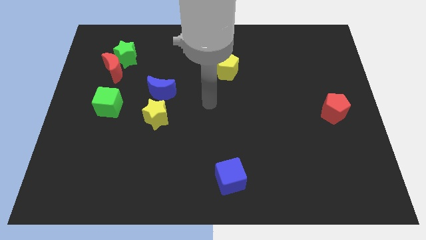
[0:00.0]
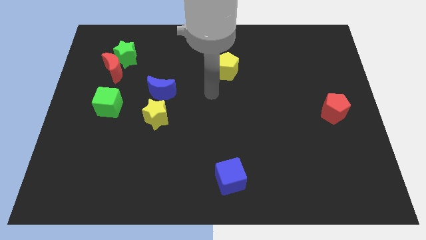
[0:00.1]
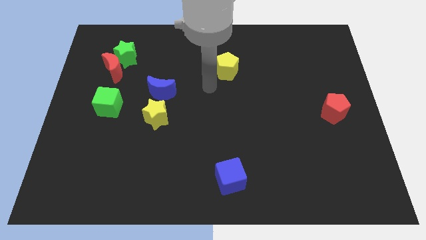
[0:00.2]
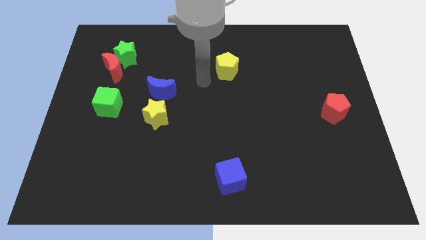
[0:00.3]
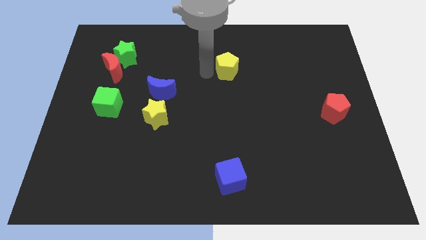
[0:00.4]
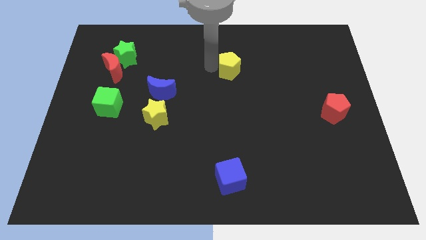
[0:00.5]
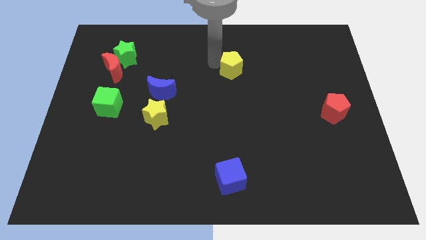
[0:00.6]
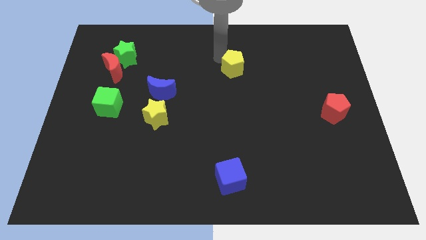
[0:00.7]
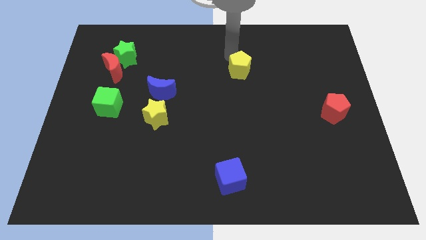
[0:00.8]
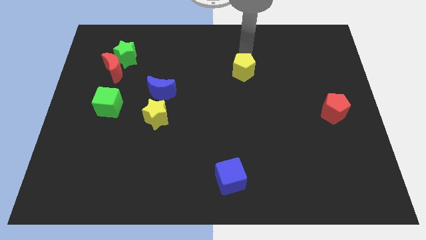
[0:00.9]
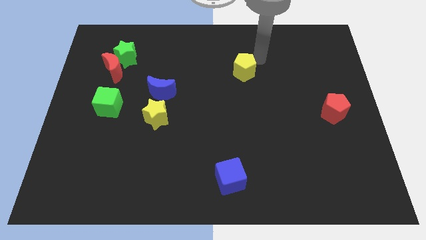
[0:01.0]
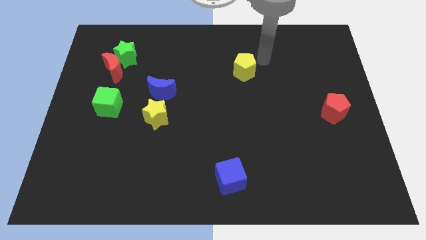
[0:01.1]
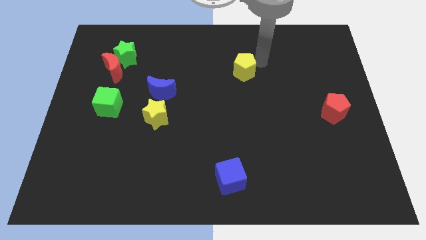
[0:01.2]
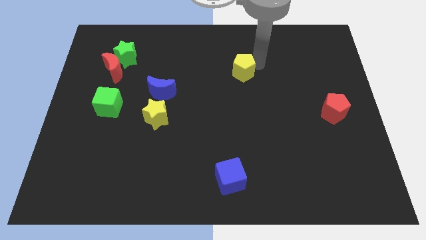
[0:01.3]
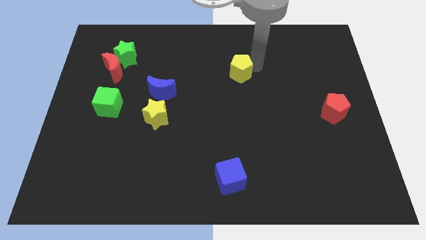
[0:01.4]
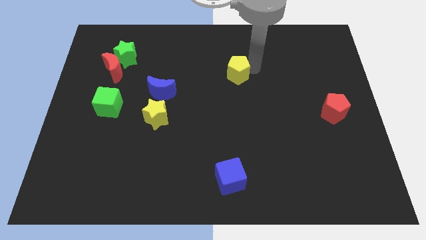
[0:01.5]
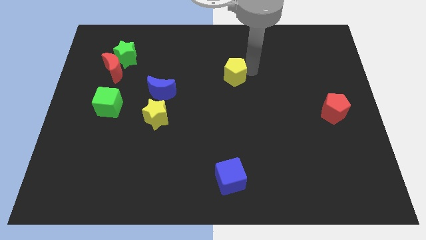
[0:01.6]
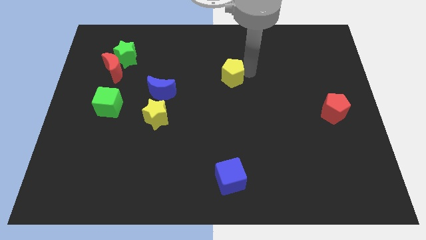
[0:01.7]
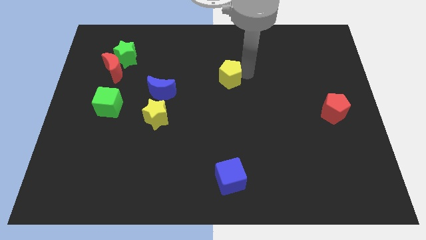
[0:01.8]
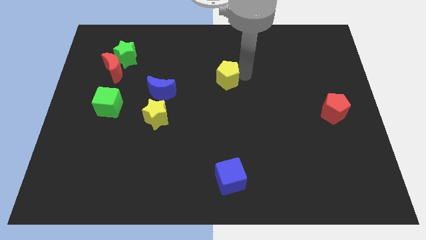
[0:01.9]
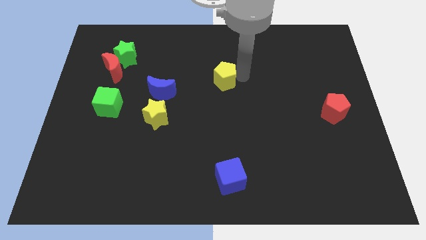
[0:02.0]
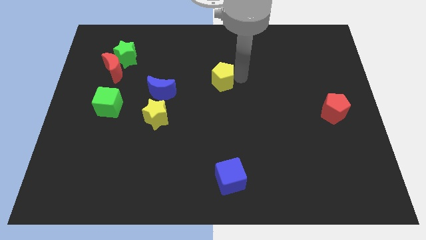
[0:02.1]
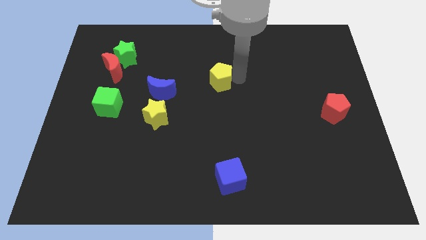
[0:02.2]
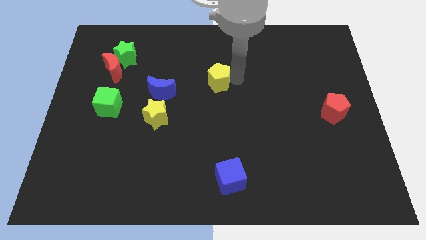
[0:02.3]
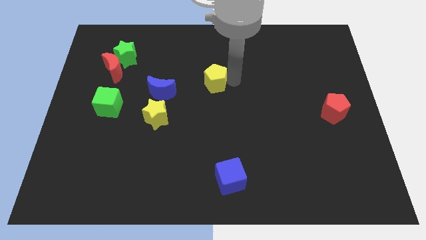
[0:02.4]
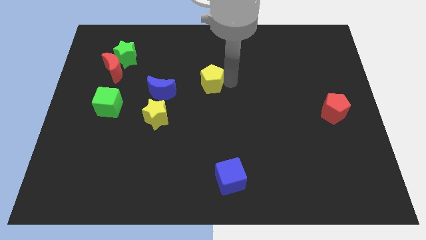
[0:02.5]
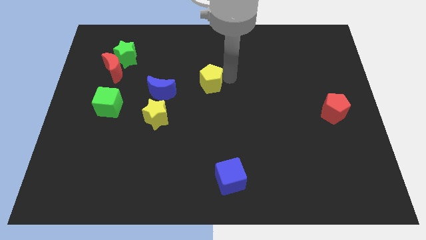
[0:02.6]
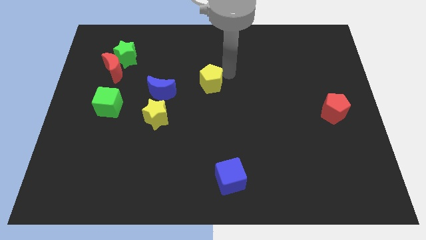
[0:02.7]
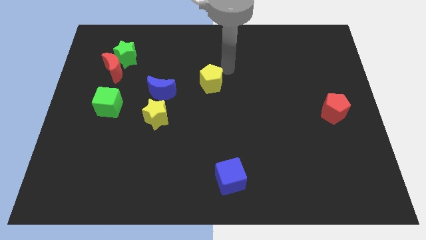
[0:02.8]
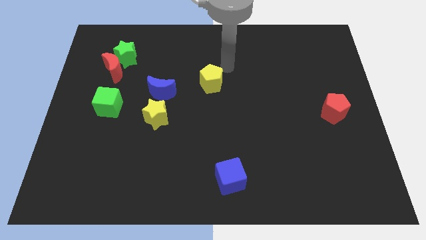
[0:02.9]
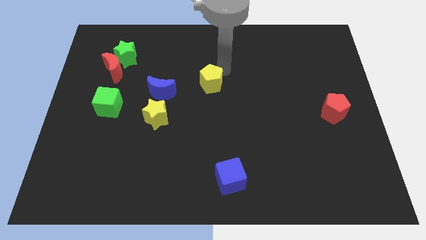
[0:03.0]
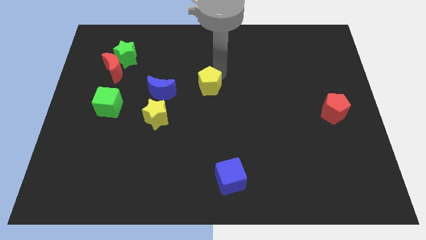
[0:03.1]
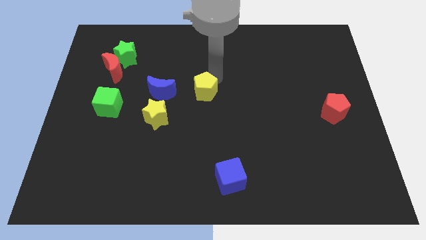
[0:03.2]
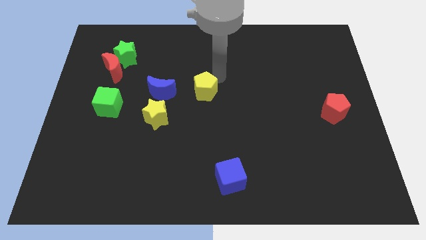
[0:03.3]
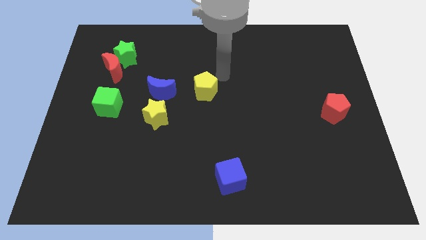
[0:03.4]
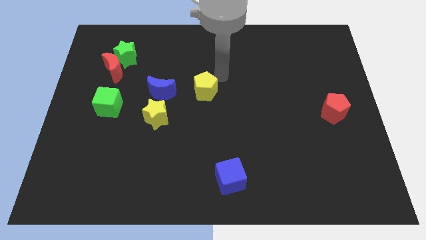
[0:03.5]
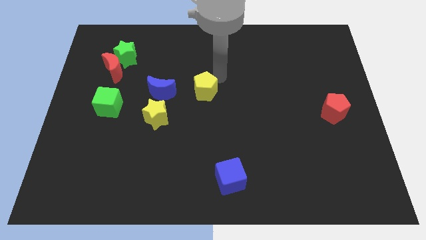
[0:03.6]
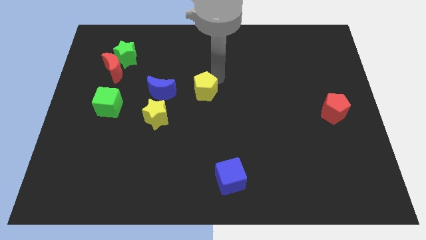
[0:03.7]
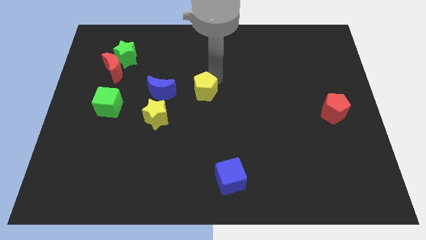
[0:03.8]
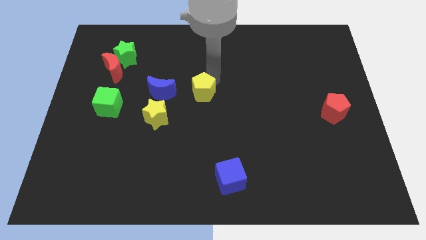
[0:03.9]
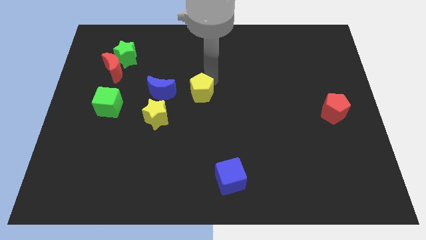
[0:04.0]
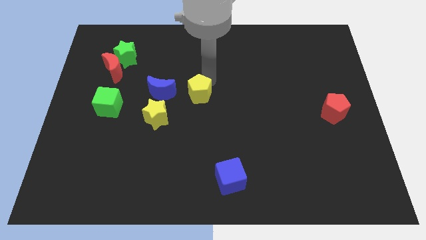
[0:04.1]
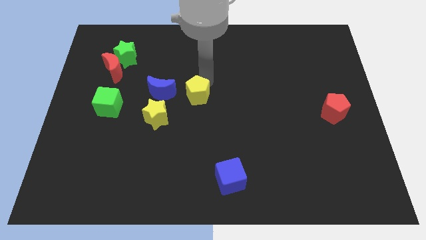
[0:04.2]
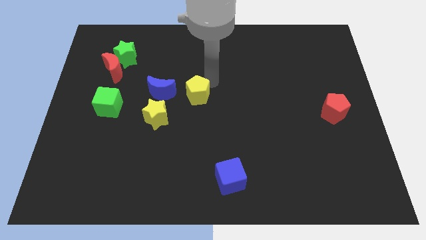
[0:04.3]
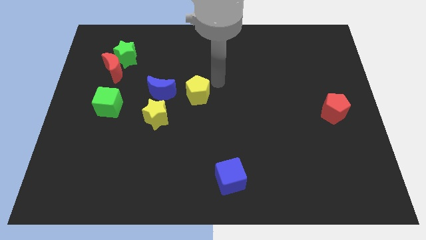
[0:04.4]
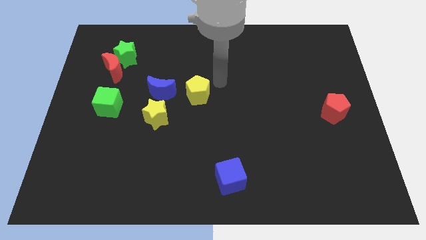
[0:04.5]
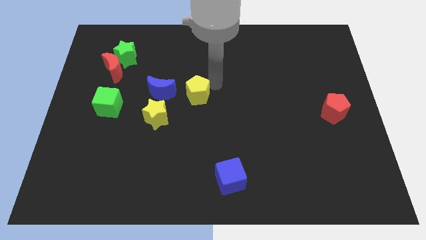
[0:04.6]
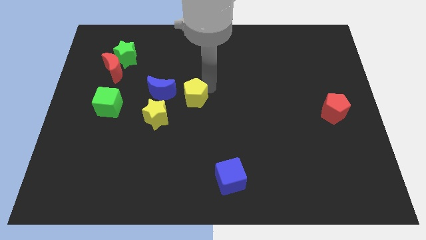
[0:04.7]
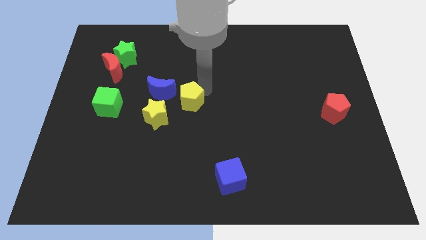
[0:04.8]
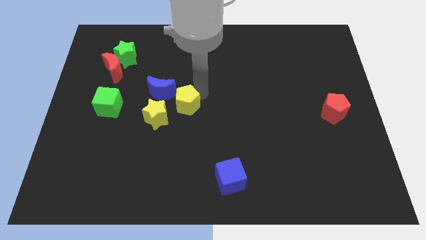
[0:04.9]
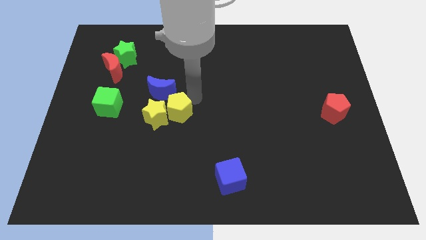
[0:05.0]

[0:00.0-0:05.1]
push the yellow pentagon towards the yellow star

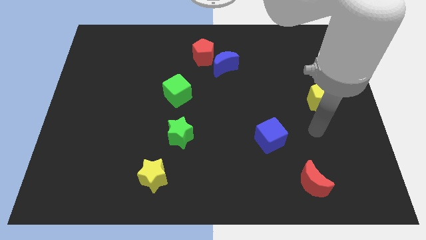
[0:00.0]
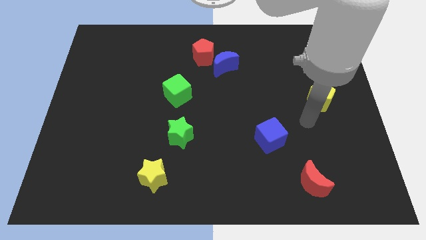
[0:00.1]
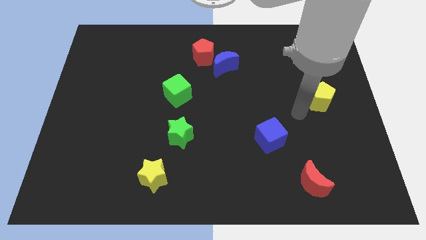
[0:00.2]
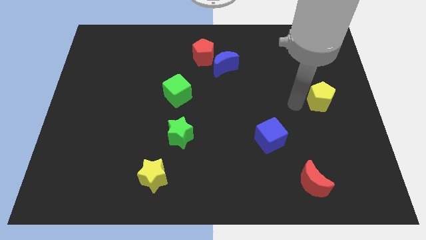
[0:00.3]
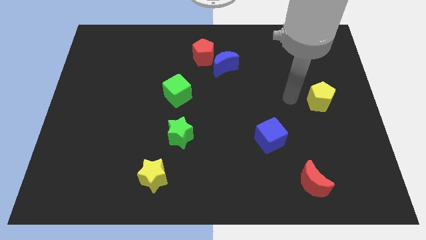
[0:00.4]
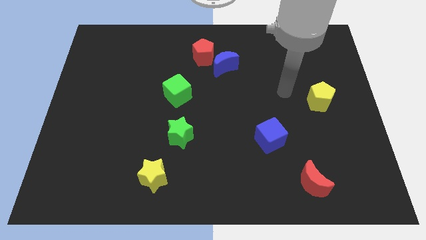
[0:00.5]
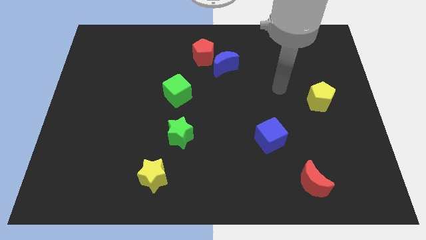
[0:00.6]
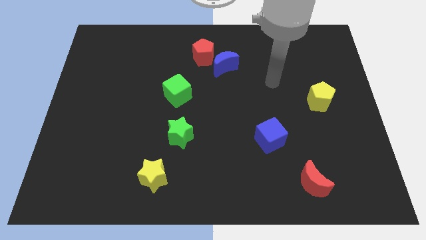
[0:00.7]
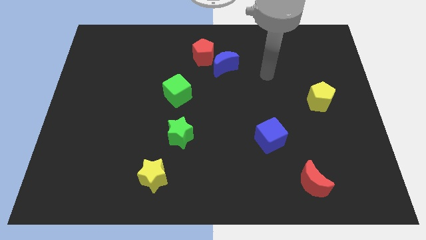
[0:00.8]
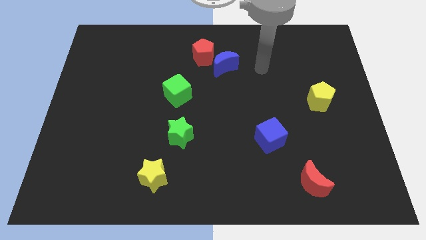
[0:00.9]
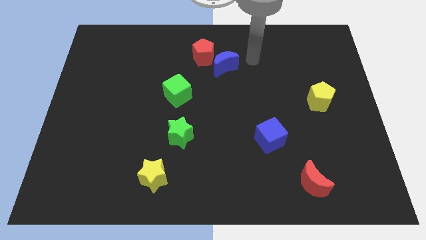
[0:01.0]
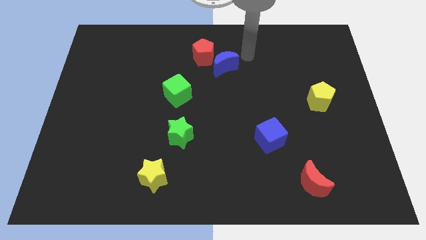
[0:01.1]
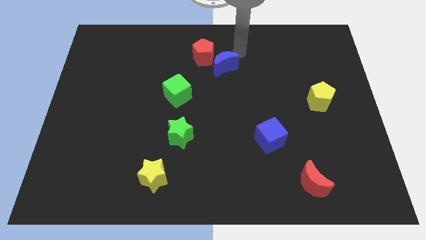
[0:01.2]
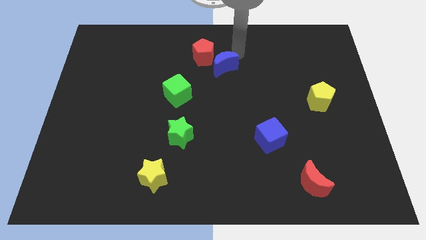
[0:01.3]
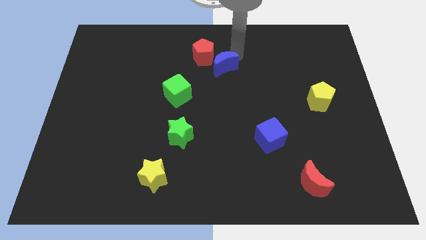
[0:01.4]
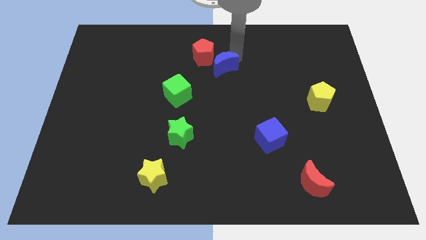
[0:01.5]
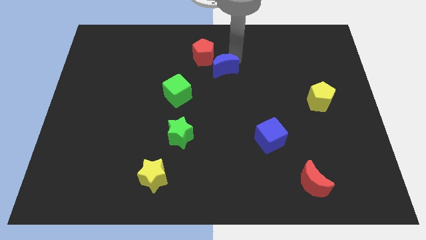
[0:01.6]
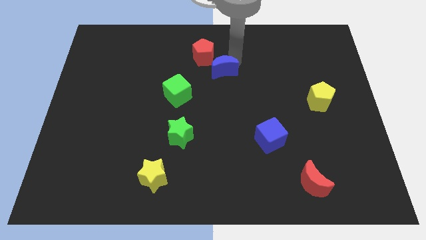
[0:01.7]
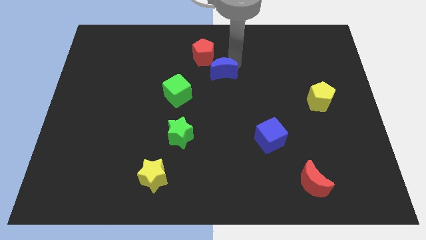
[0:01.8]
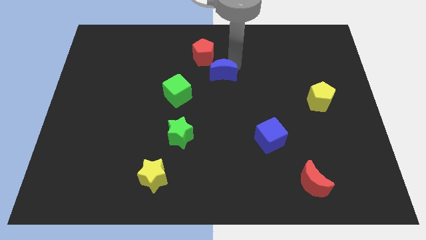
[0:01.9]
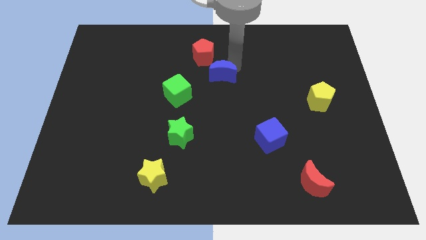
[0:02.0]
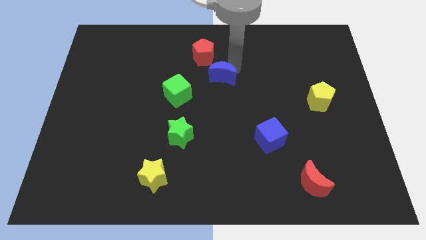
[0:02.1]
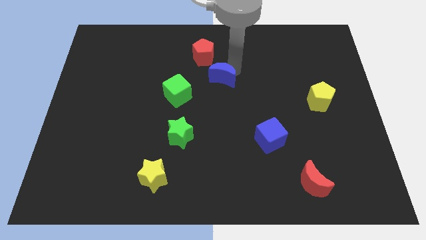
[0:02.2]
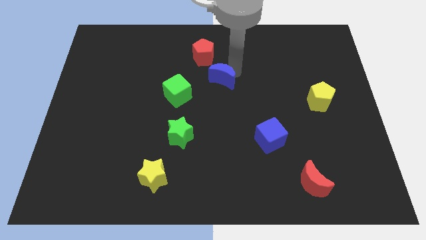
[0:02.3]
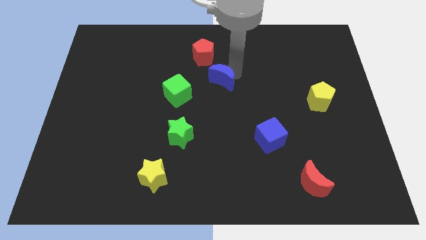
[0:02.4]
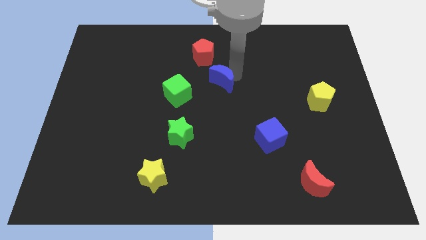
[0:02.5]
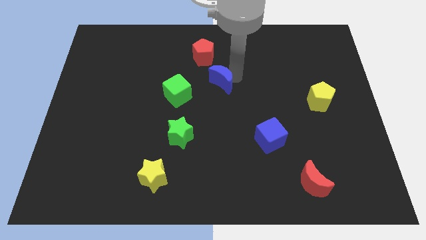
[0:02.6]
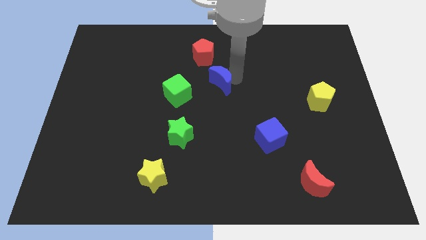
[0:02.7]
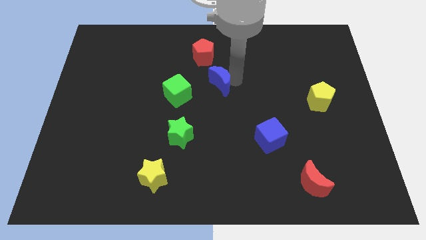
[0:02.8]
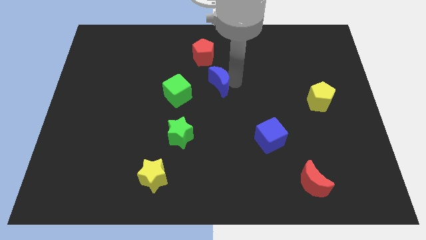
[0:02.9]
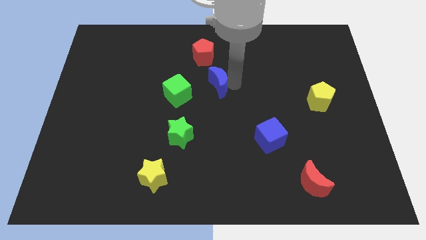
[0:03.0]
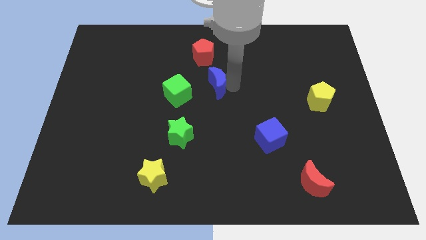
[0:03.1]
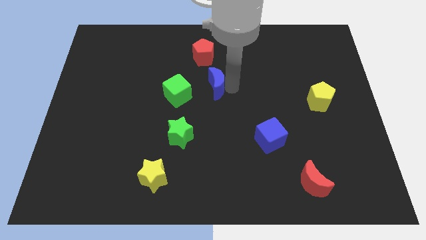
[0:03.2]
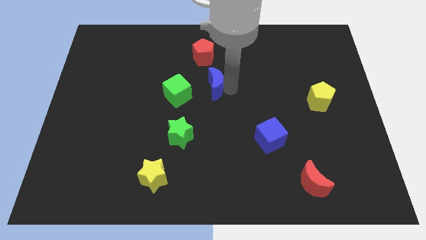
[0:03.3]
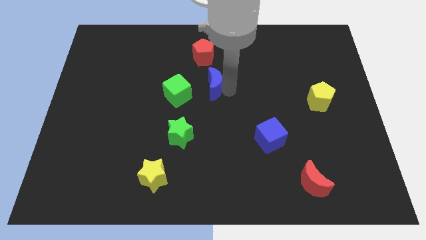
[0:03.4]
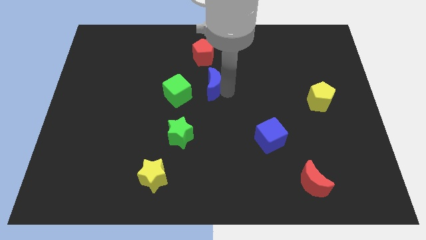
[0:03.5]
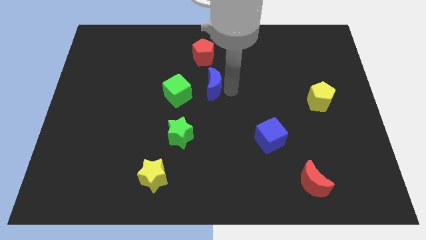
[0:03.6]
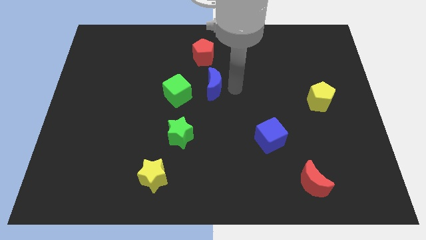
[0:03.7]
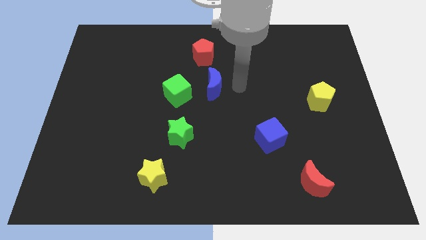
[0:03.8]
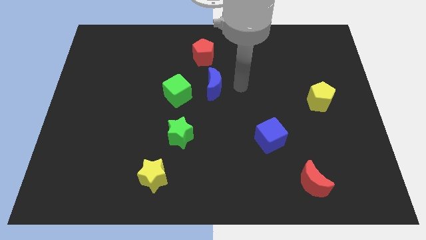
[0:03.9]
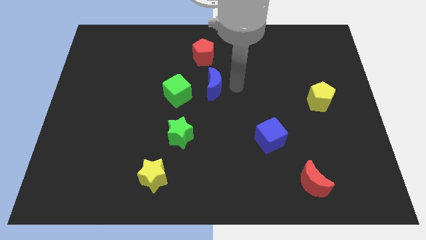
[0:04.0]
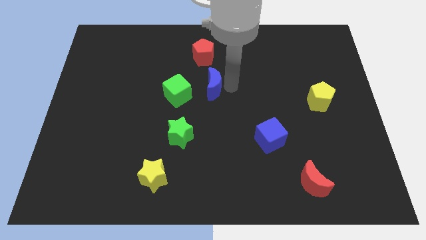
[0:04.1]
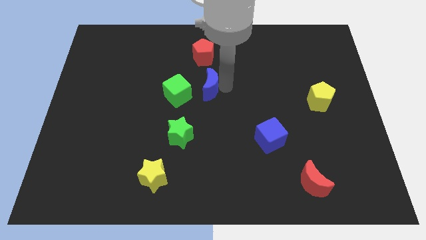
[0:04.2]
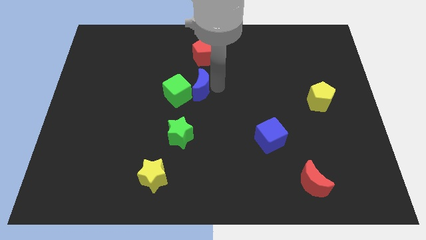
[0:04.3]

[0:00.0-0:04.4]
slide the blue moon towards the green cube
